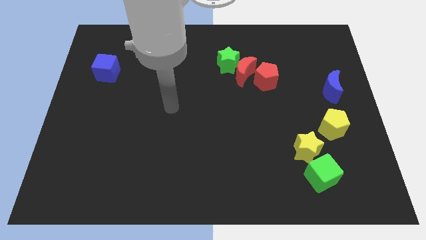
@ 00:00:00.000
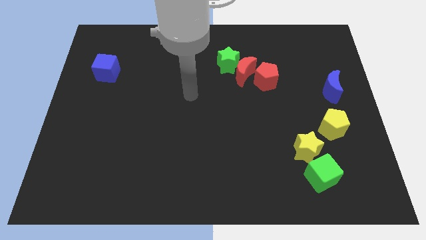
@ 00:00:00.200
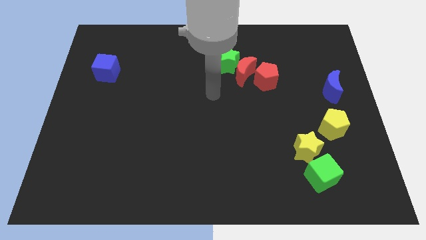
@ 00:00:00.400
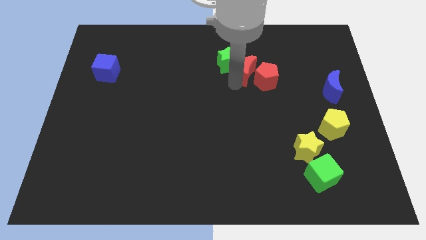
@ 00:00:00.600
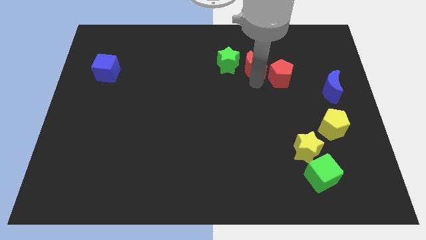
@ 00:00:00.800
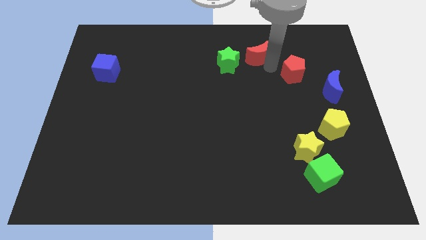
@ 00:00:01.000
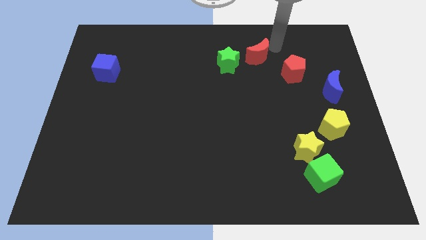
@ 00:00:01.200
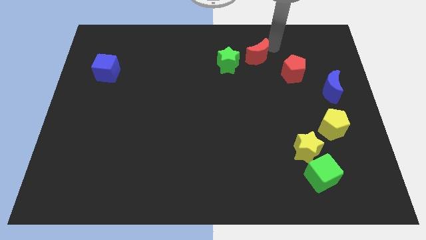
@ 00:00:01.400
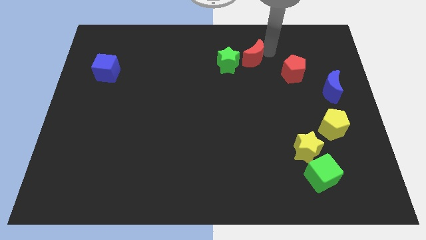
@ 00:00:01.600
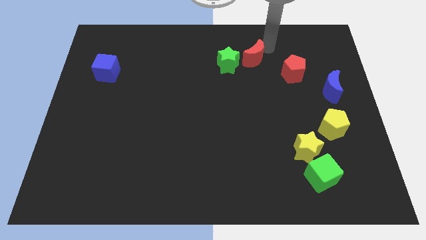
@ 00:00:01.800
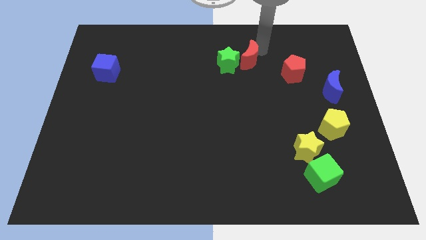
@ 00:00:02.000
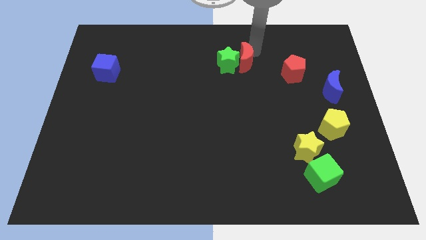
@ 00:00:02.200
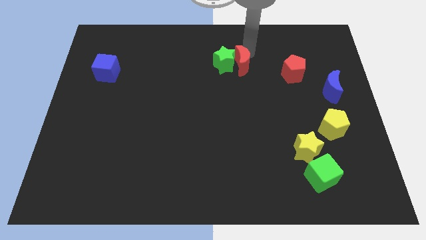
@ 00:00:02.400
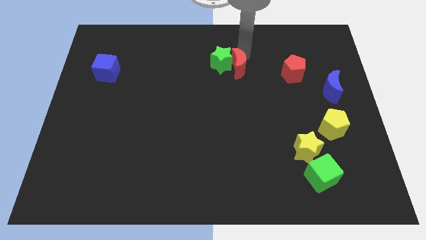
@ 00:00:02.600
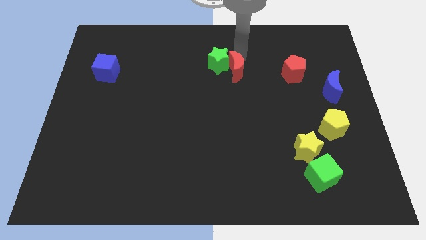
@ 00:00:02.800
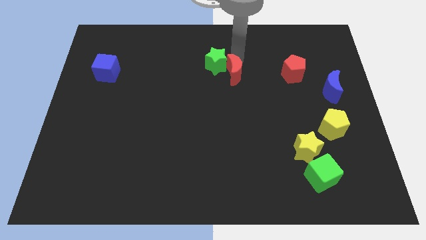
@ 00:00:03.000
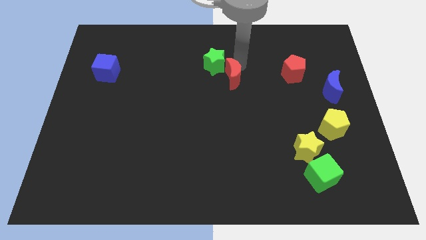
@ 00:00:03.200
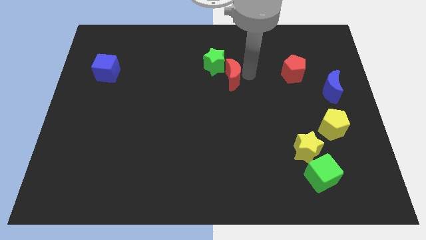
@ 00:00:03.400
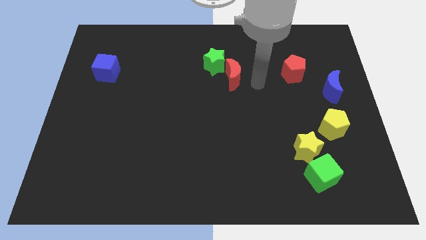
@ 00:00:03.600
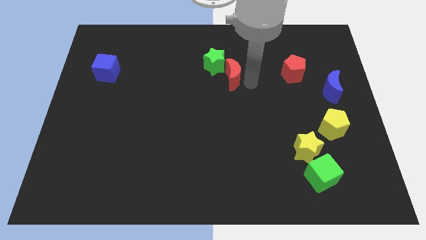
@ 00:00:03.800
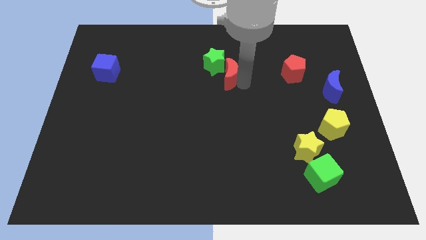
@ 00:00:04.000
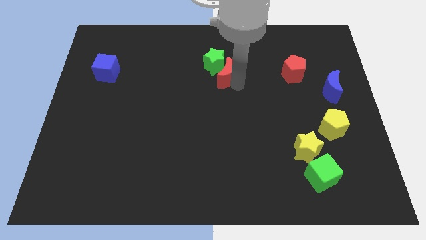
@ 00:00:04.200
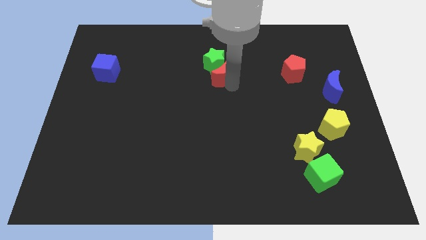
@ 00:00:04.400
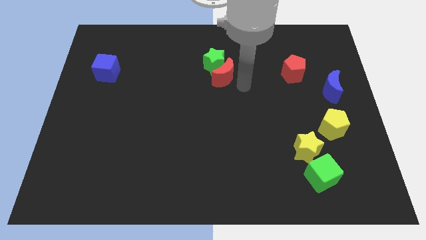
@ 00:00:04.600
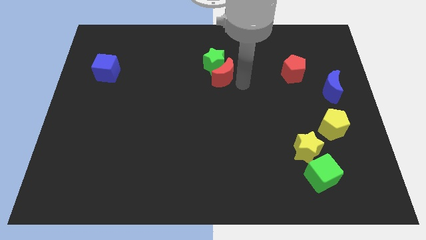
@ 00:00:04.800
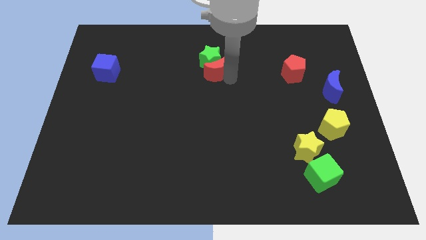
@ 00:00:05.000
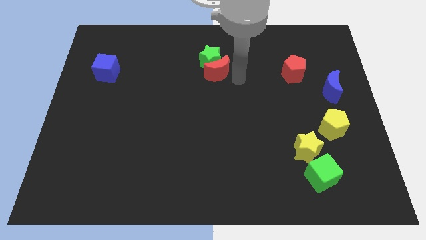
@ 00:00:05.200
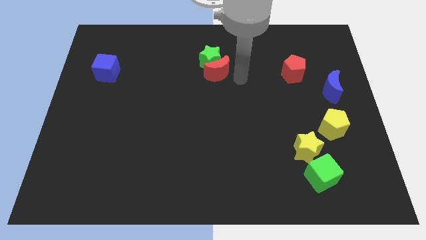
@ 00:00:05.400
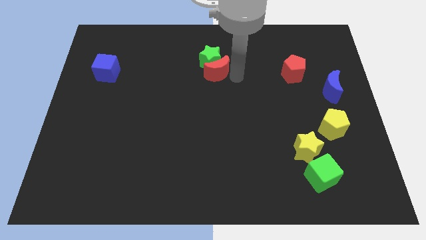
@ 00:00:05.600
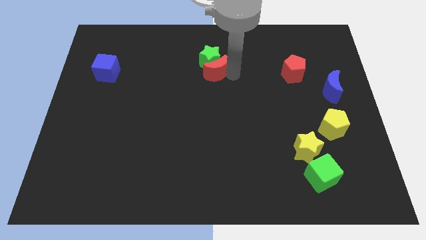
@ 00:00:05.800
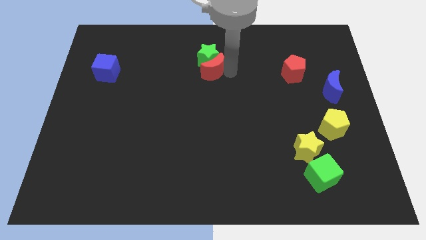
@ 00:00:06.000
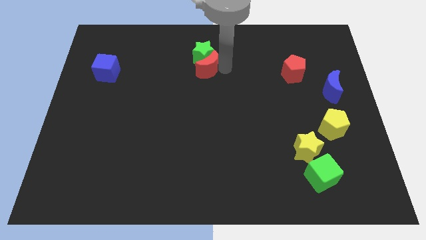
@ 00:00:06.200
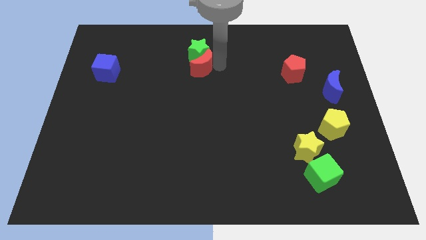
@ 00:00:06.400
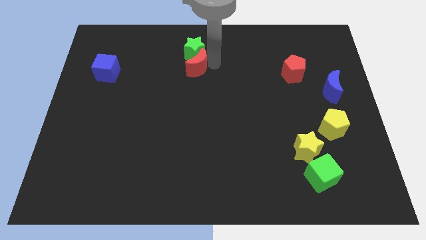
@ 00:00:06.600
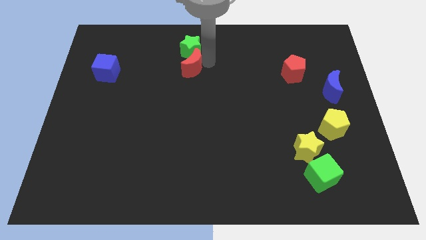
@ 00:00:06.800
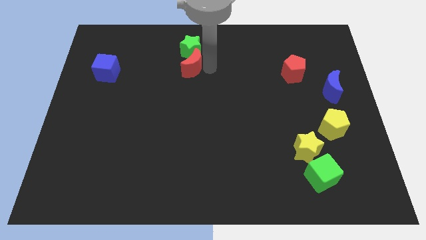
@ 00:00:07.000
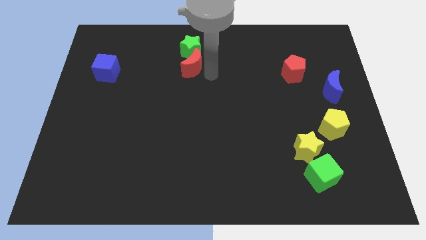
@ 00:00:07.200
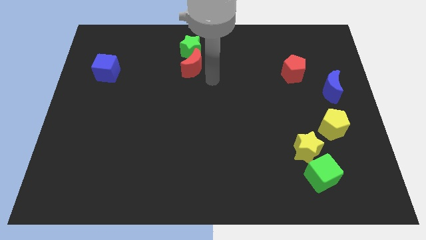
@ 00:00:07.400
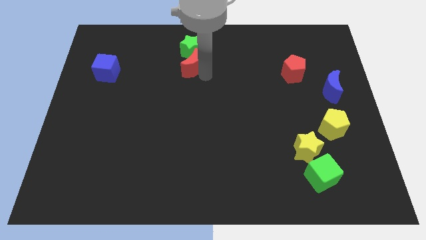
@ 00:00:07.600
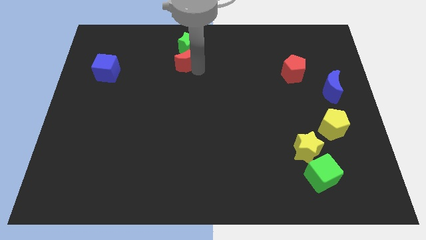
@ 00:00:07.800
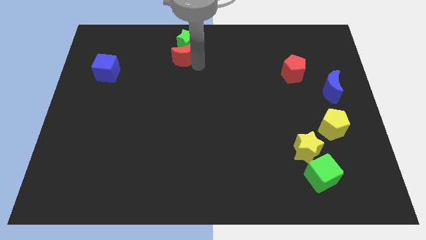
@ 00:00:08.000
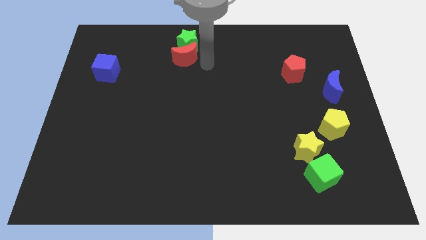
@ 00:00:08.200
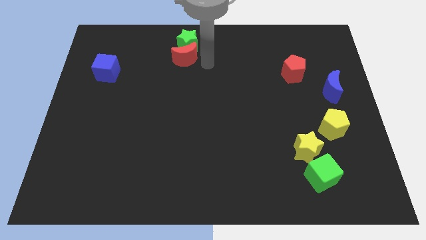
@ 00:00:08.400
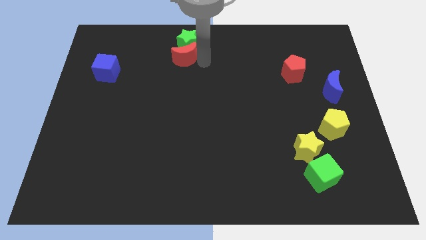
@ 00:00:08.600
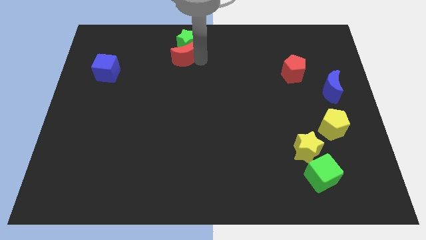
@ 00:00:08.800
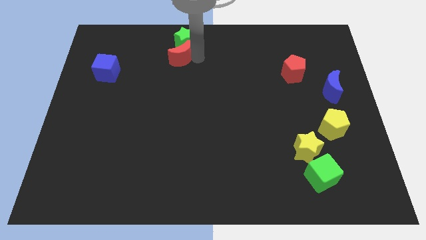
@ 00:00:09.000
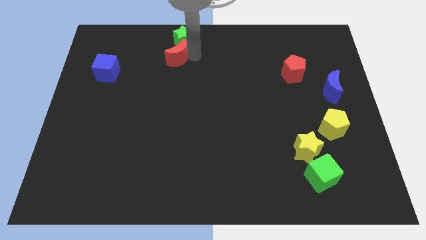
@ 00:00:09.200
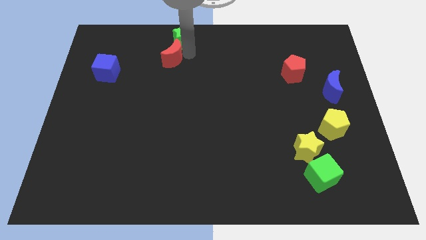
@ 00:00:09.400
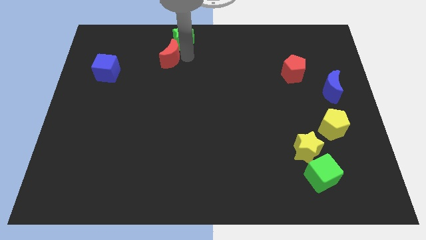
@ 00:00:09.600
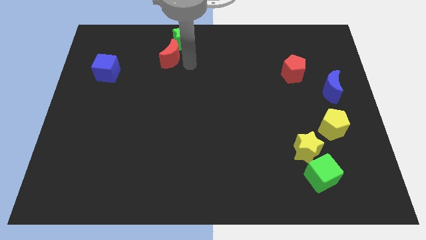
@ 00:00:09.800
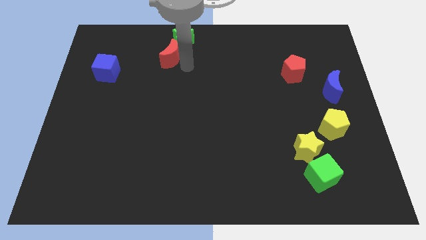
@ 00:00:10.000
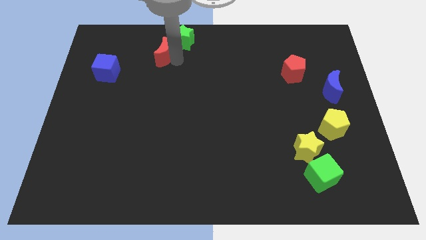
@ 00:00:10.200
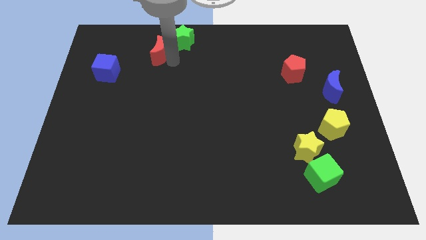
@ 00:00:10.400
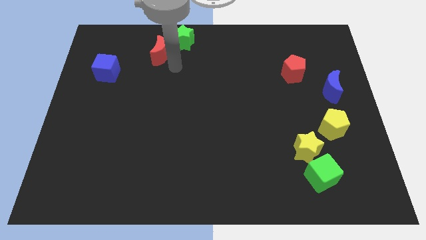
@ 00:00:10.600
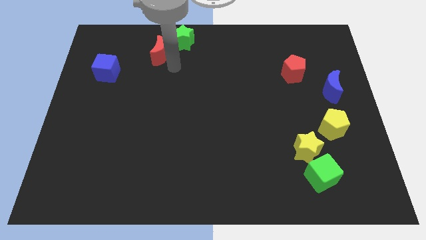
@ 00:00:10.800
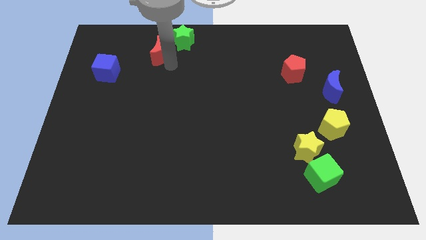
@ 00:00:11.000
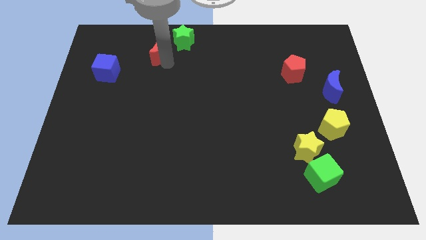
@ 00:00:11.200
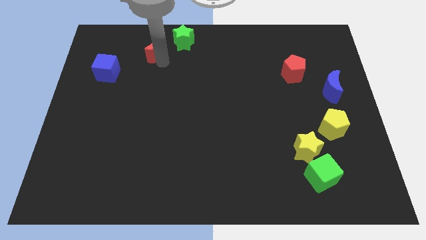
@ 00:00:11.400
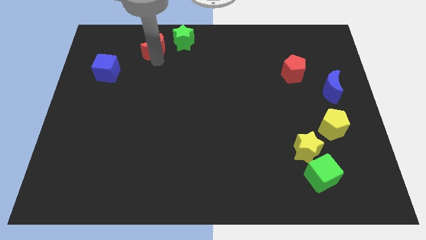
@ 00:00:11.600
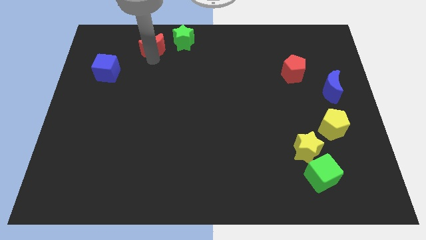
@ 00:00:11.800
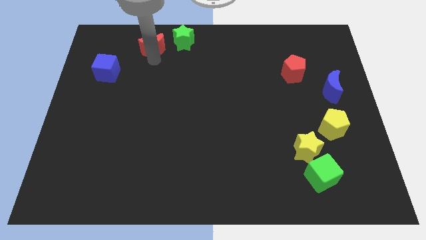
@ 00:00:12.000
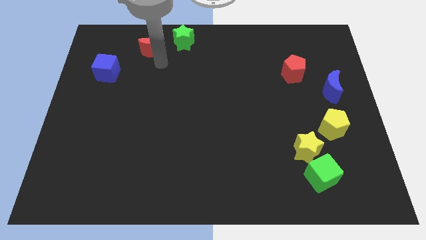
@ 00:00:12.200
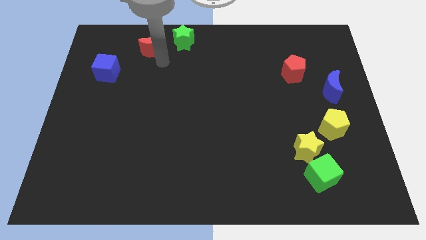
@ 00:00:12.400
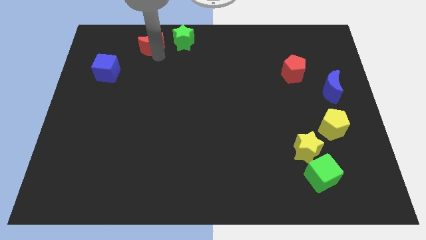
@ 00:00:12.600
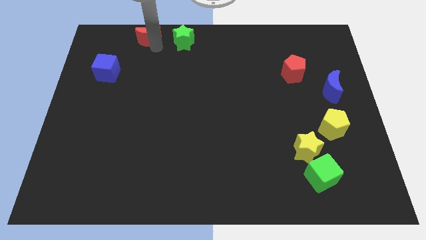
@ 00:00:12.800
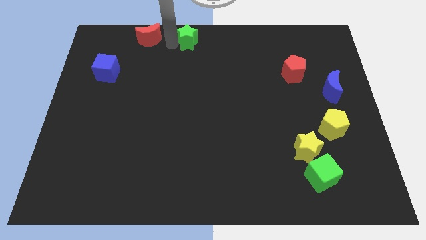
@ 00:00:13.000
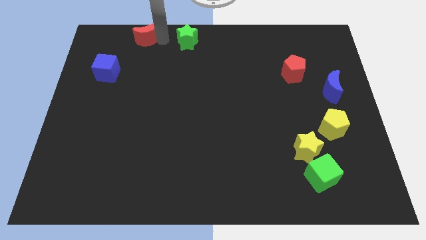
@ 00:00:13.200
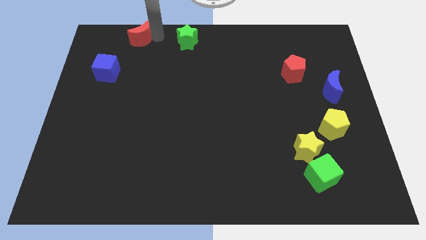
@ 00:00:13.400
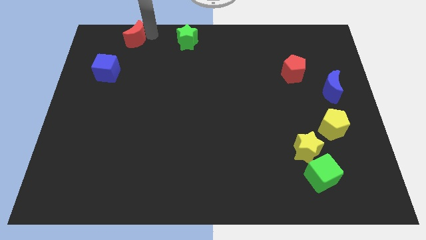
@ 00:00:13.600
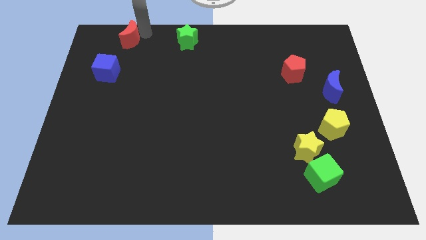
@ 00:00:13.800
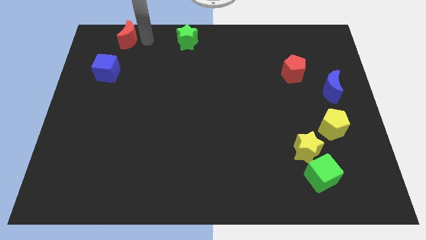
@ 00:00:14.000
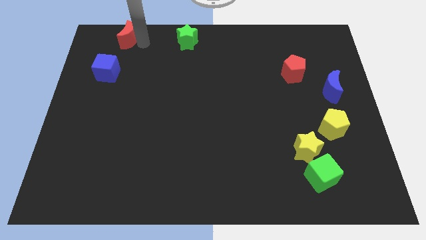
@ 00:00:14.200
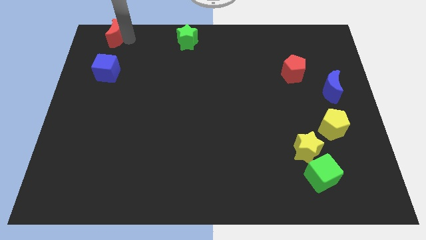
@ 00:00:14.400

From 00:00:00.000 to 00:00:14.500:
put the red moon to the top left of the board
